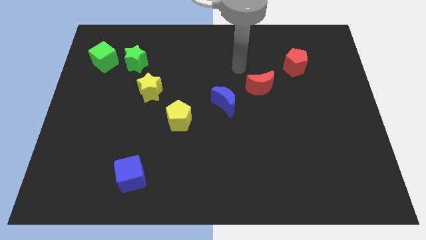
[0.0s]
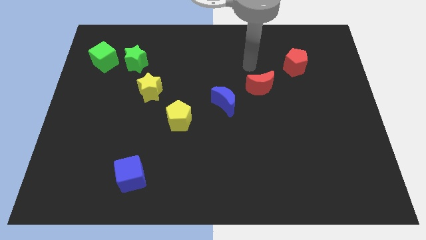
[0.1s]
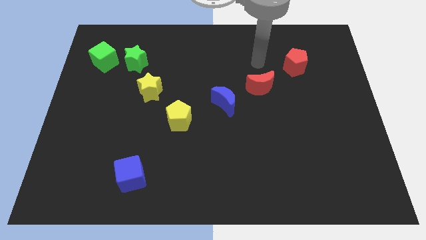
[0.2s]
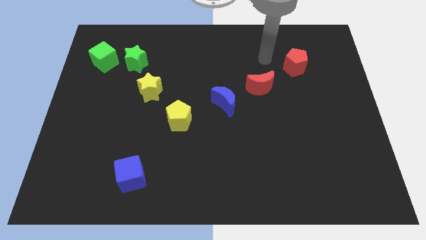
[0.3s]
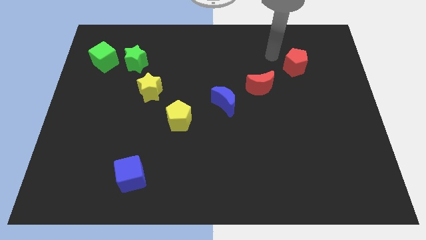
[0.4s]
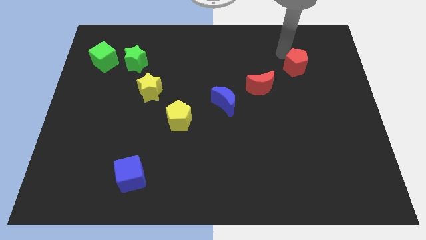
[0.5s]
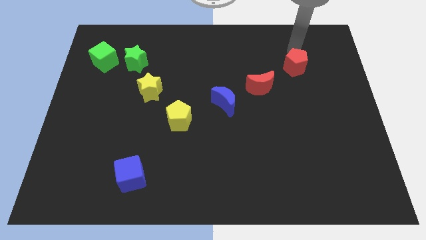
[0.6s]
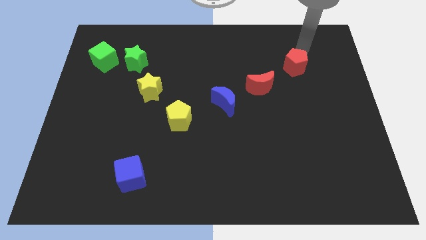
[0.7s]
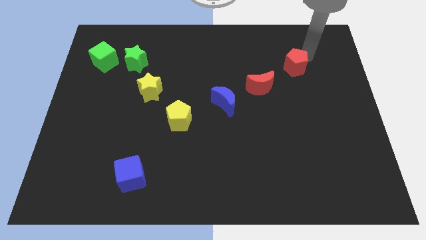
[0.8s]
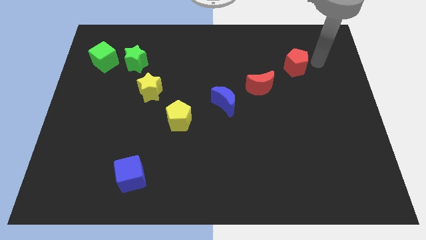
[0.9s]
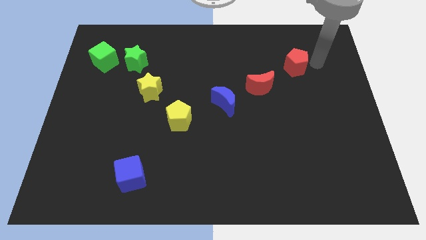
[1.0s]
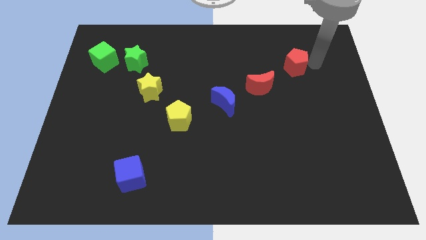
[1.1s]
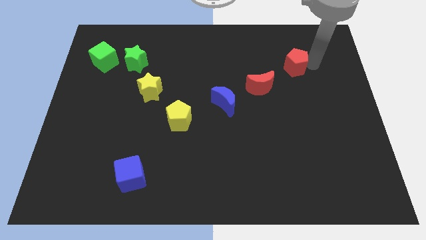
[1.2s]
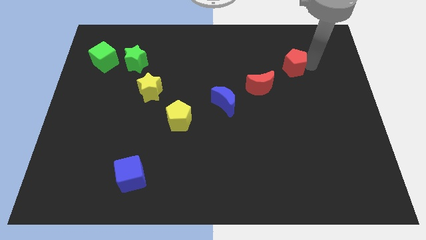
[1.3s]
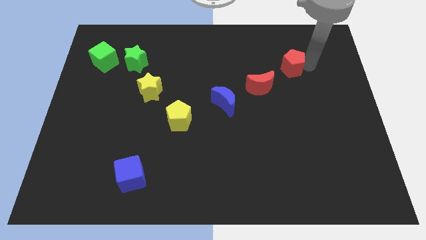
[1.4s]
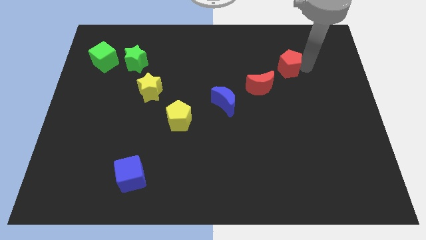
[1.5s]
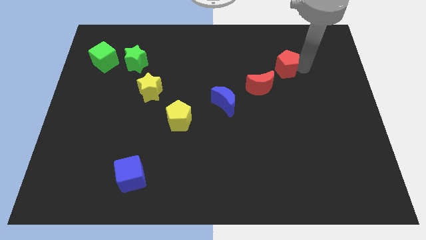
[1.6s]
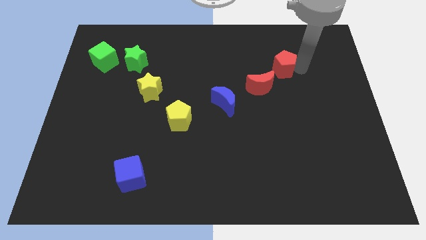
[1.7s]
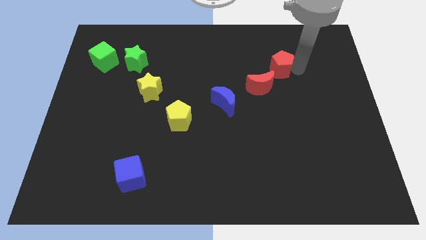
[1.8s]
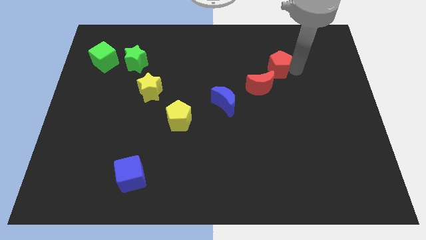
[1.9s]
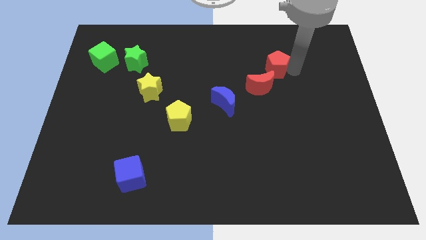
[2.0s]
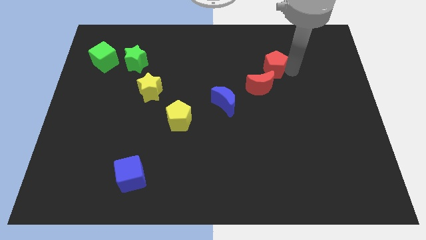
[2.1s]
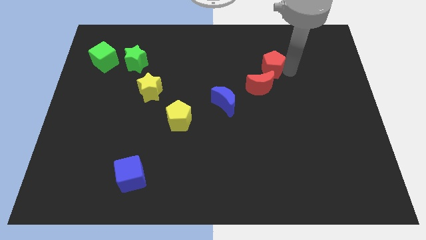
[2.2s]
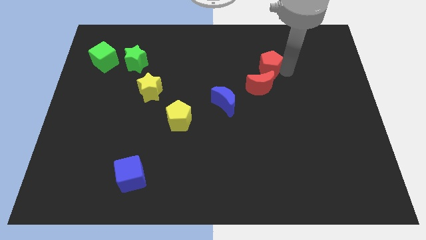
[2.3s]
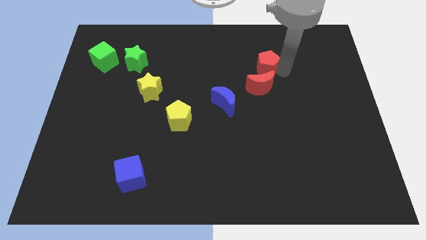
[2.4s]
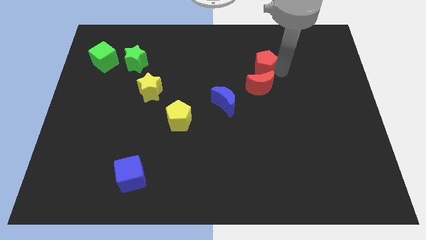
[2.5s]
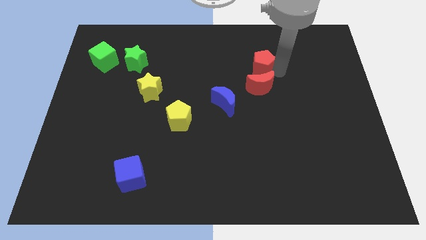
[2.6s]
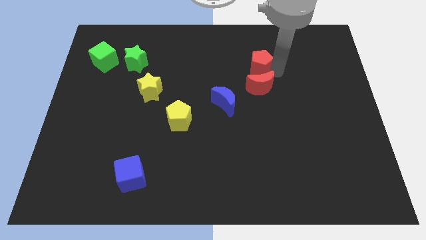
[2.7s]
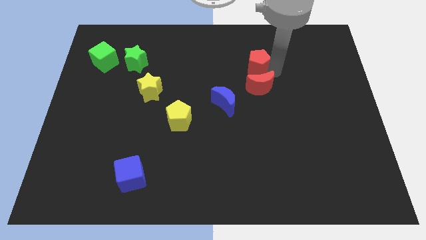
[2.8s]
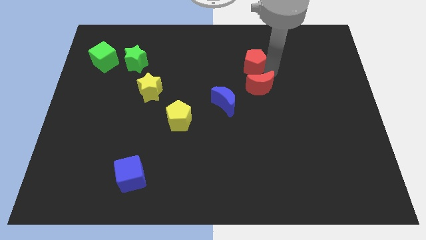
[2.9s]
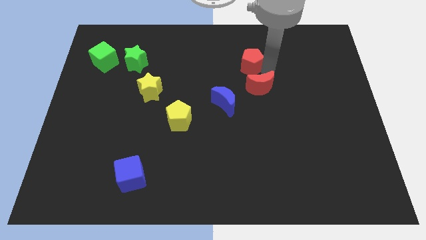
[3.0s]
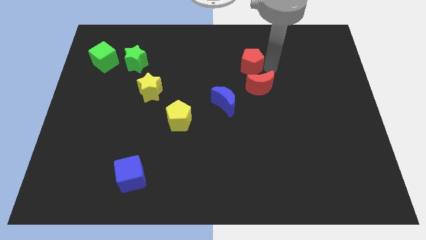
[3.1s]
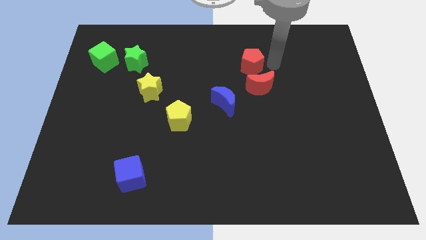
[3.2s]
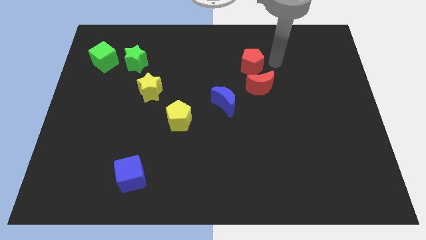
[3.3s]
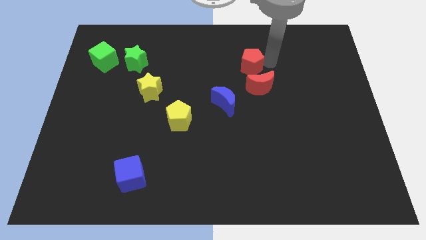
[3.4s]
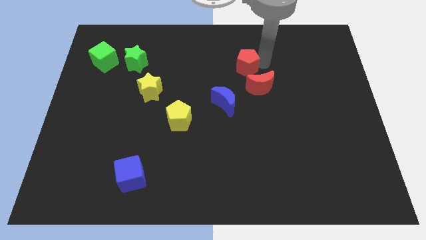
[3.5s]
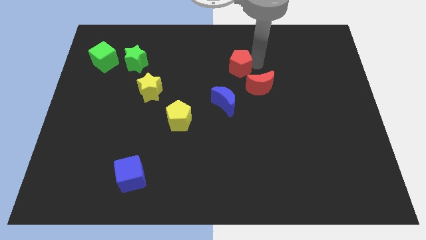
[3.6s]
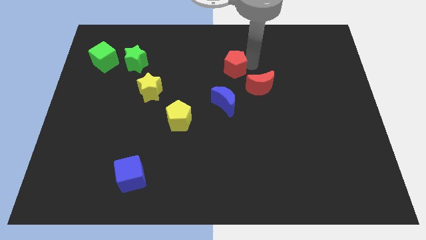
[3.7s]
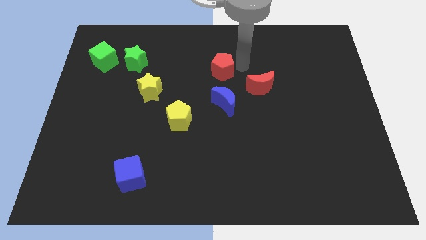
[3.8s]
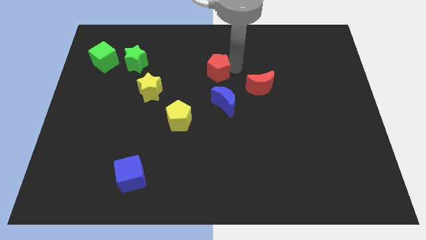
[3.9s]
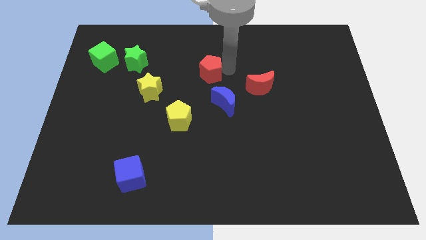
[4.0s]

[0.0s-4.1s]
push the red pentagon to the left

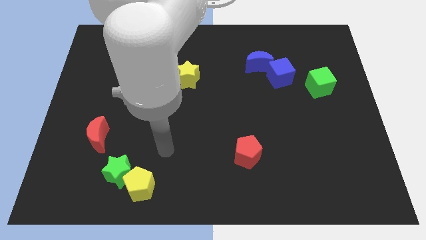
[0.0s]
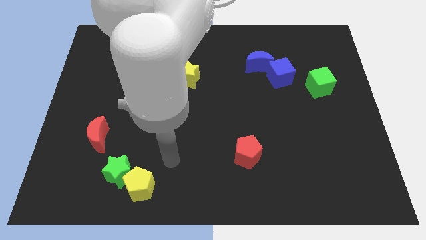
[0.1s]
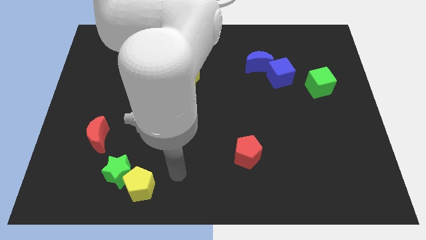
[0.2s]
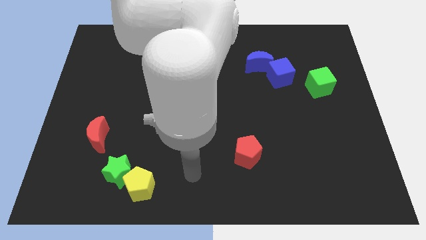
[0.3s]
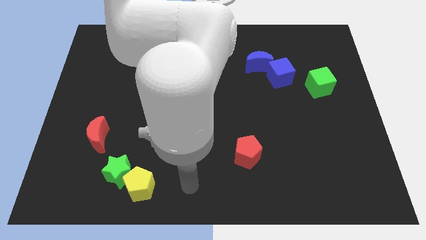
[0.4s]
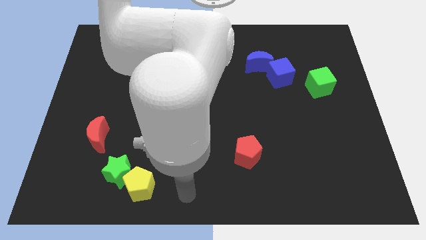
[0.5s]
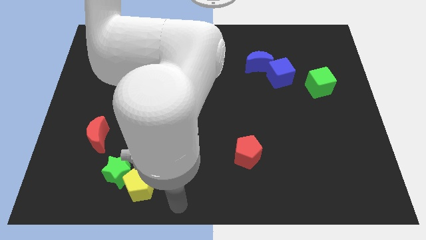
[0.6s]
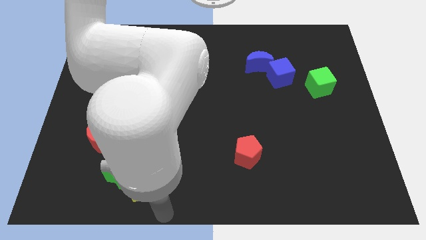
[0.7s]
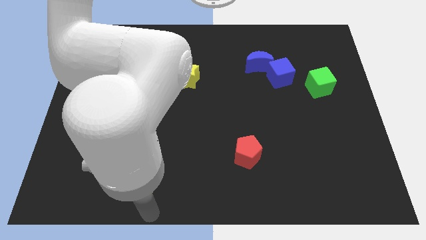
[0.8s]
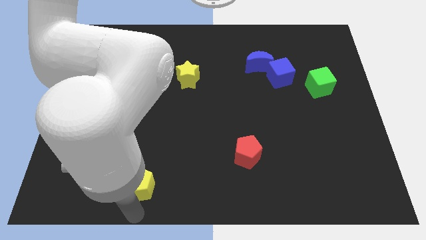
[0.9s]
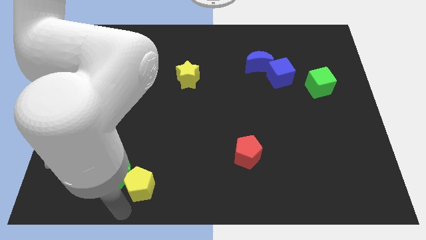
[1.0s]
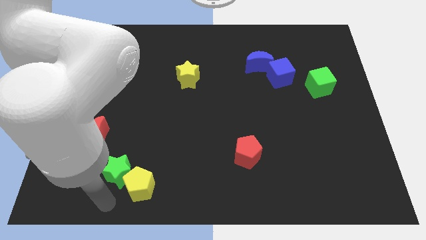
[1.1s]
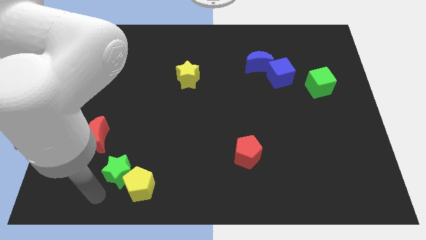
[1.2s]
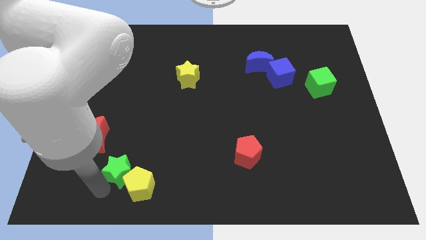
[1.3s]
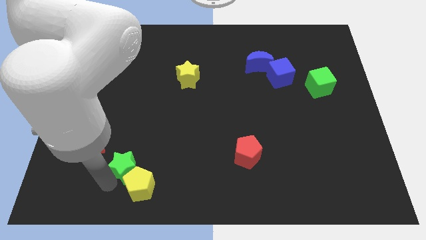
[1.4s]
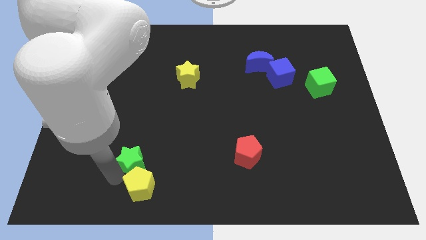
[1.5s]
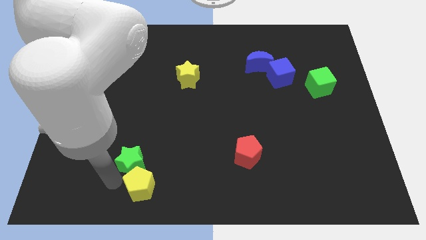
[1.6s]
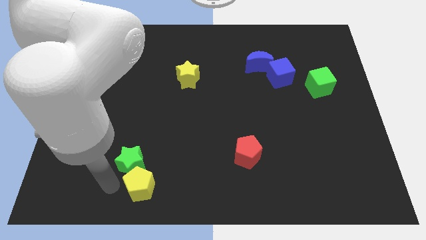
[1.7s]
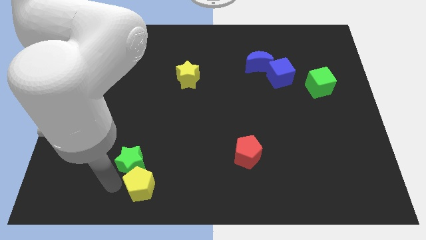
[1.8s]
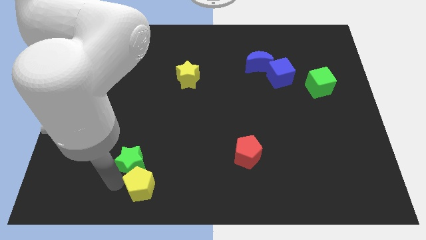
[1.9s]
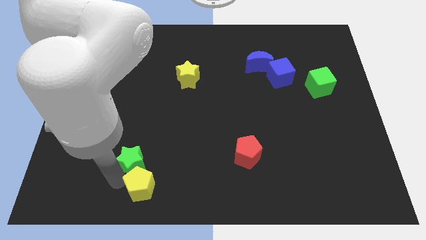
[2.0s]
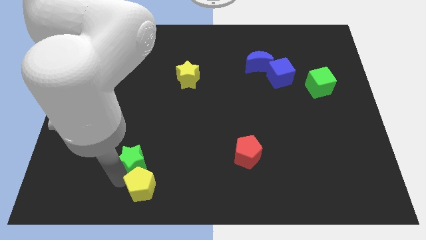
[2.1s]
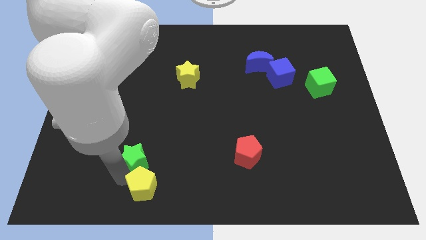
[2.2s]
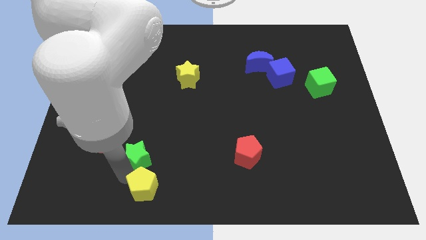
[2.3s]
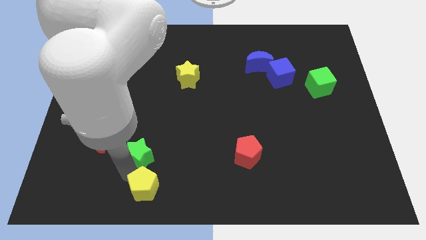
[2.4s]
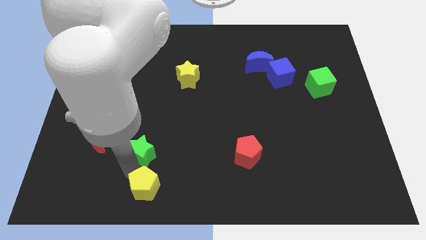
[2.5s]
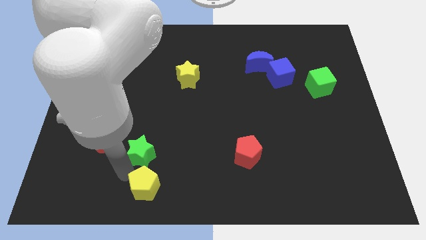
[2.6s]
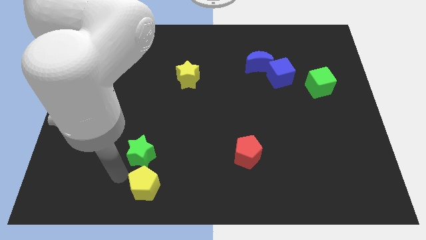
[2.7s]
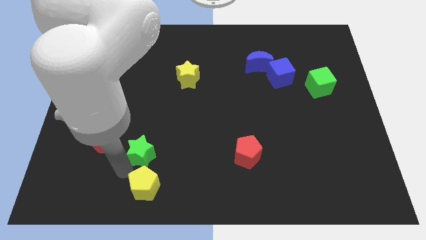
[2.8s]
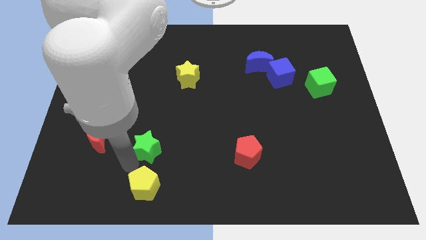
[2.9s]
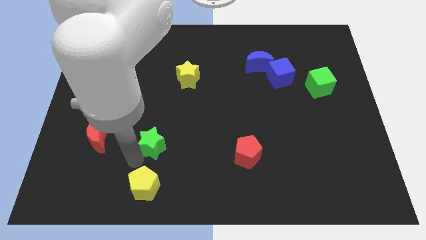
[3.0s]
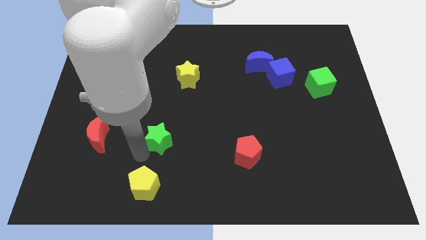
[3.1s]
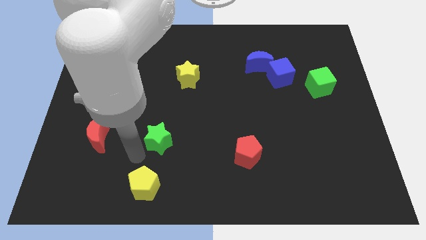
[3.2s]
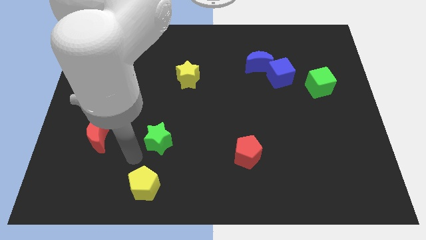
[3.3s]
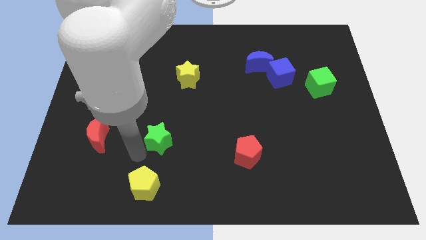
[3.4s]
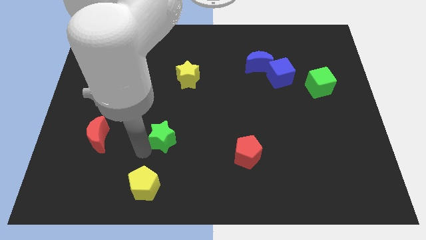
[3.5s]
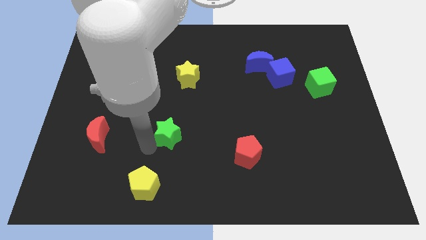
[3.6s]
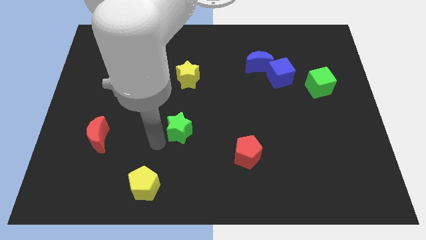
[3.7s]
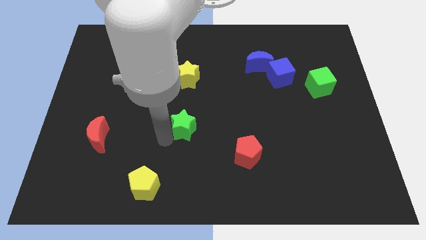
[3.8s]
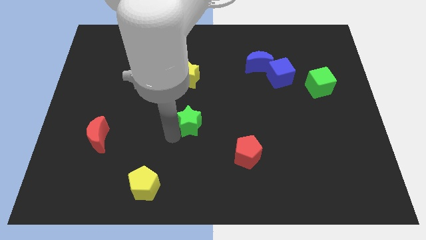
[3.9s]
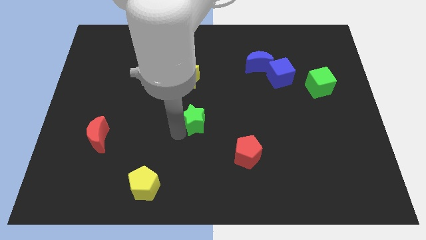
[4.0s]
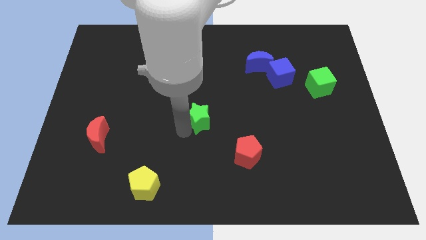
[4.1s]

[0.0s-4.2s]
slide the green star diagonally up and to the right
